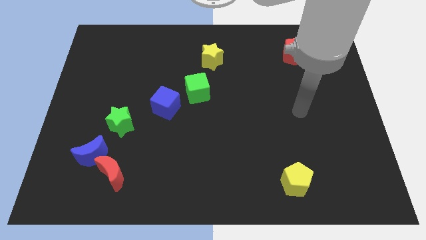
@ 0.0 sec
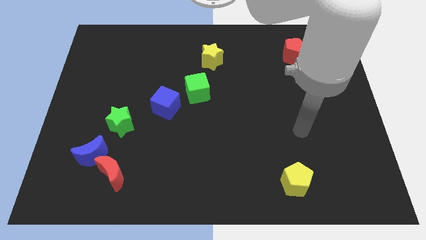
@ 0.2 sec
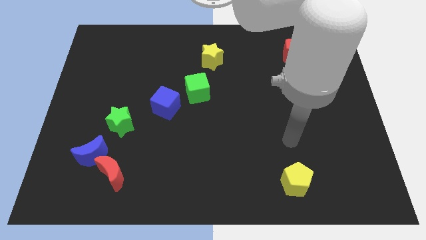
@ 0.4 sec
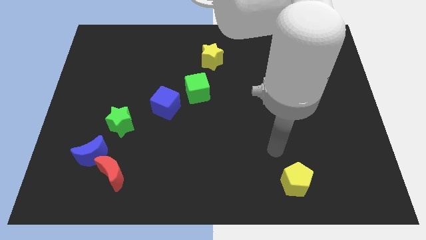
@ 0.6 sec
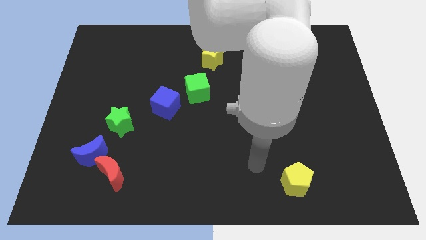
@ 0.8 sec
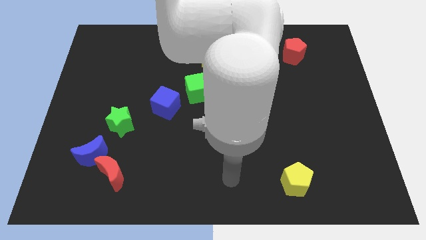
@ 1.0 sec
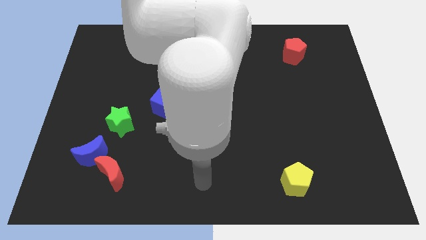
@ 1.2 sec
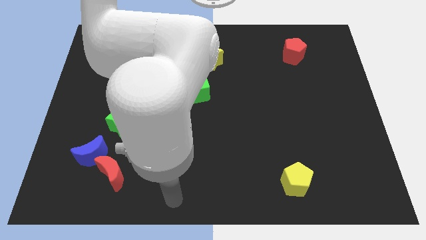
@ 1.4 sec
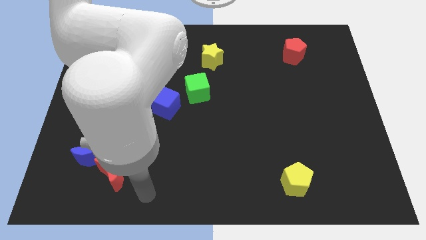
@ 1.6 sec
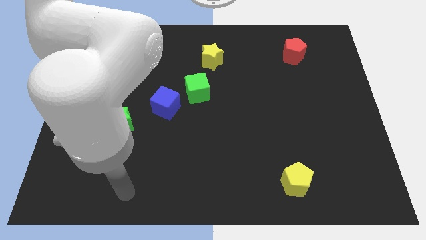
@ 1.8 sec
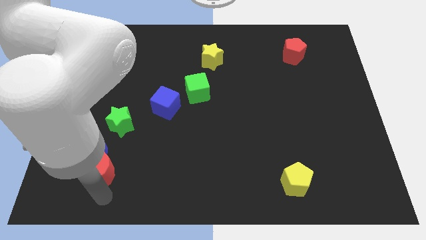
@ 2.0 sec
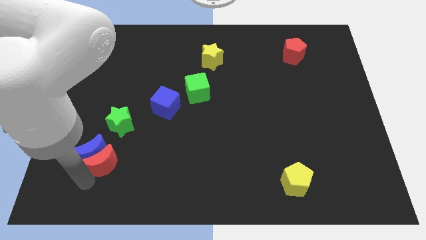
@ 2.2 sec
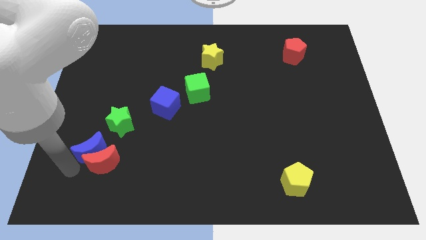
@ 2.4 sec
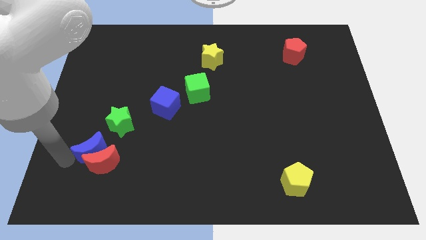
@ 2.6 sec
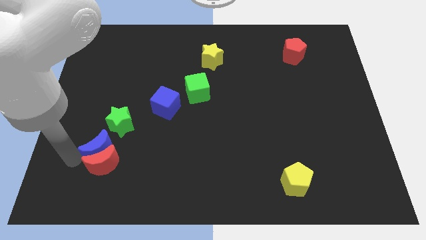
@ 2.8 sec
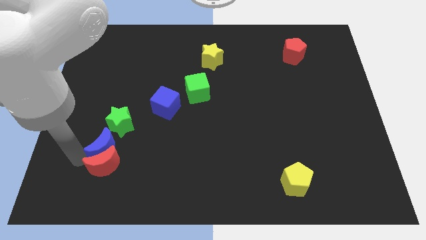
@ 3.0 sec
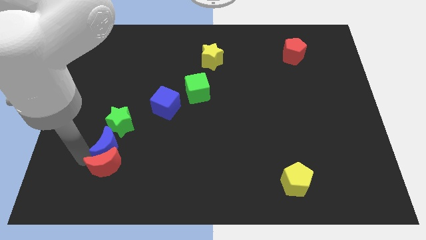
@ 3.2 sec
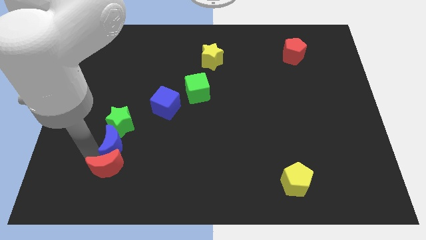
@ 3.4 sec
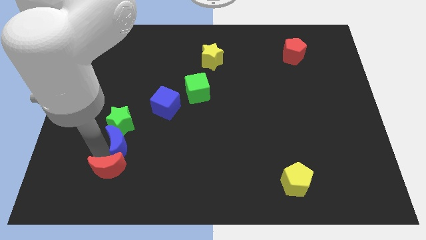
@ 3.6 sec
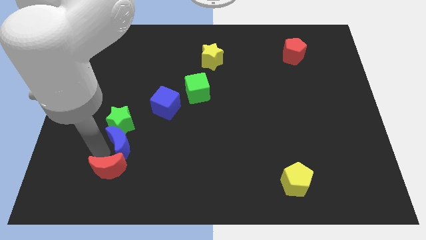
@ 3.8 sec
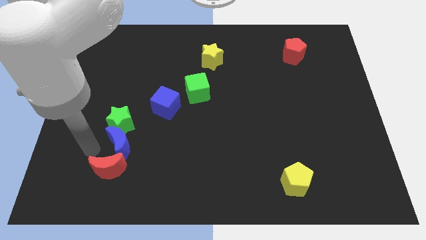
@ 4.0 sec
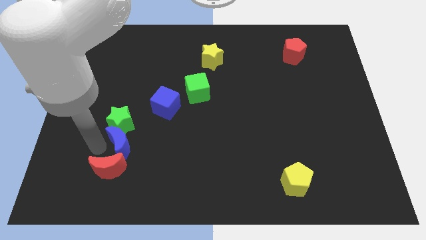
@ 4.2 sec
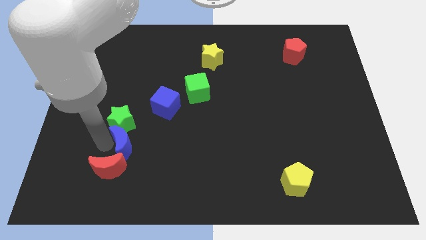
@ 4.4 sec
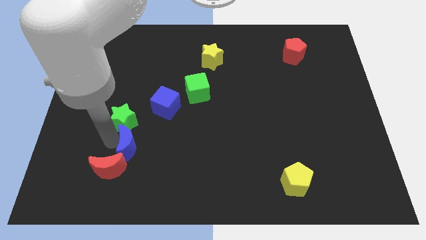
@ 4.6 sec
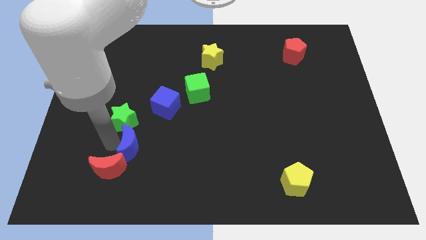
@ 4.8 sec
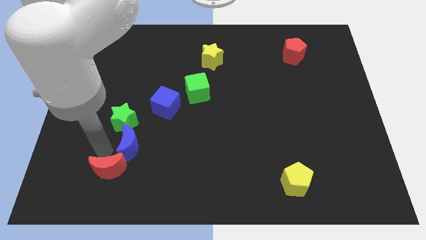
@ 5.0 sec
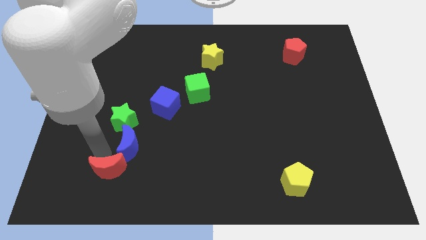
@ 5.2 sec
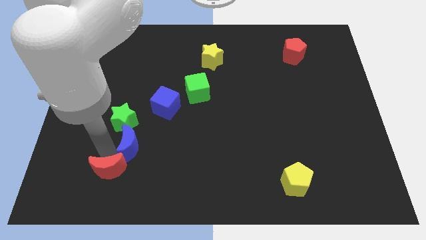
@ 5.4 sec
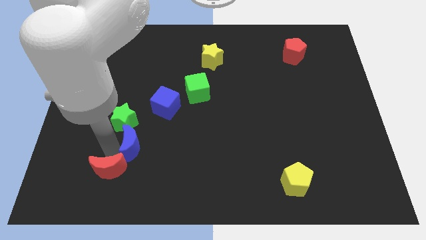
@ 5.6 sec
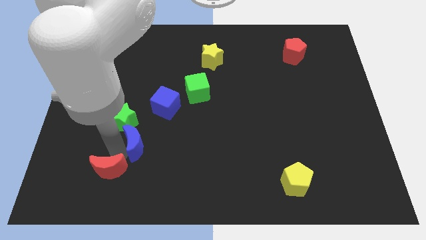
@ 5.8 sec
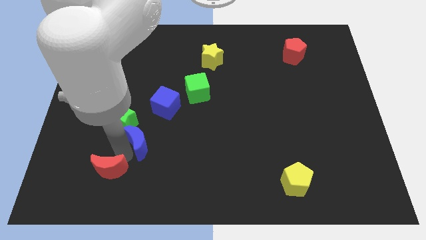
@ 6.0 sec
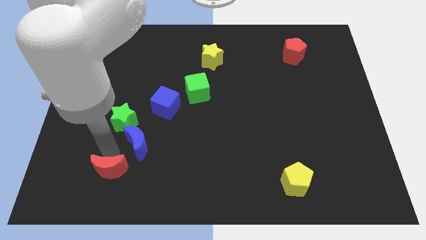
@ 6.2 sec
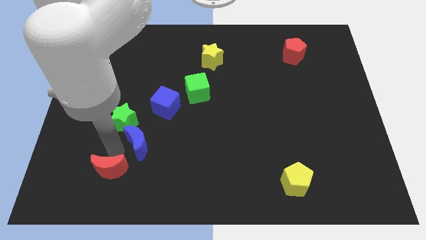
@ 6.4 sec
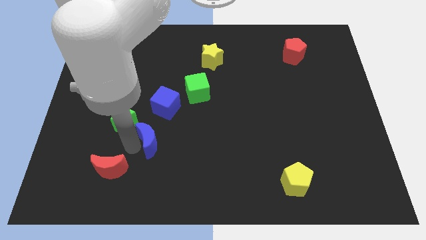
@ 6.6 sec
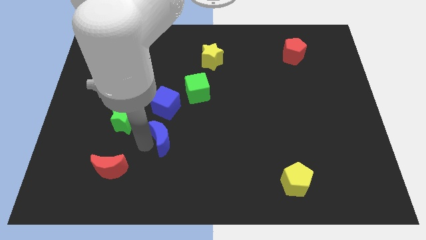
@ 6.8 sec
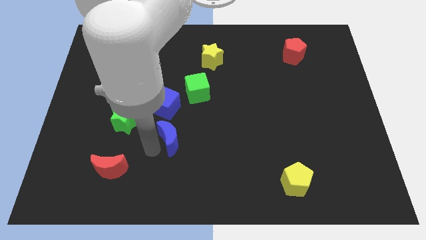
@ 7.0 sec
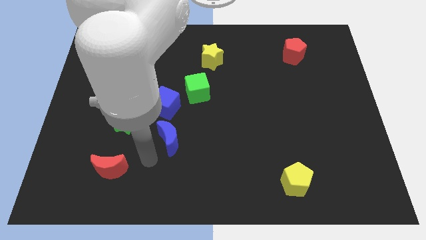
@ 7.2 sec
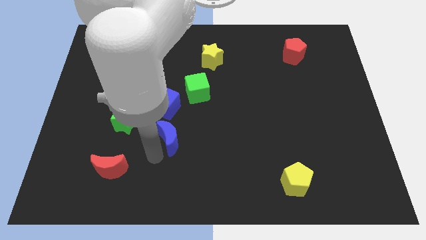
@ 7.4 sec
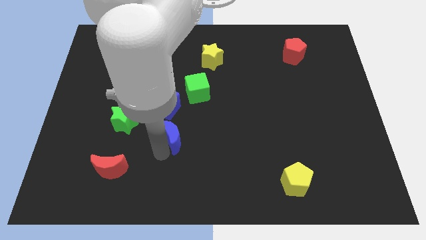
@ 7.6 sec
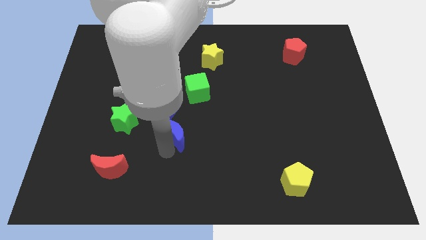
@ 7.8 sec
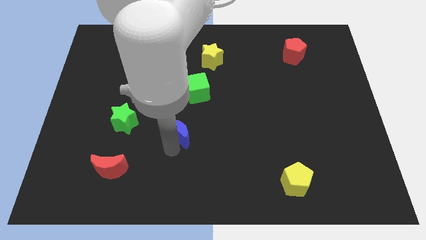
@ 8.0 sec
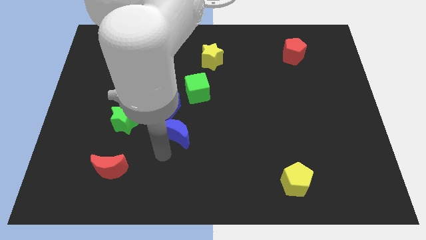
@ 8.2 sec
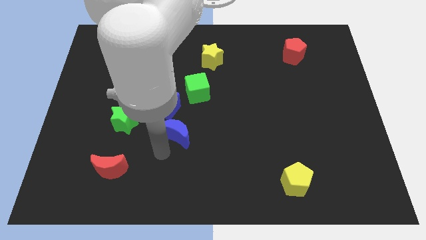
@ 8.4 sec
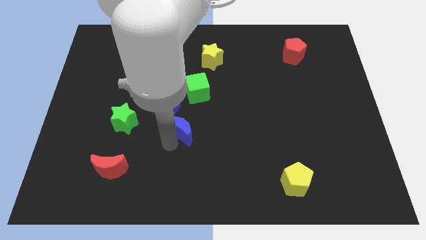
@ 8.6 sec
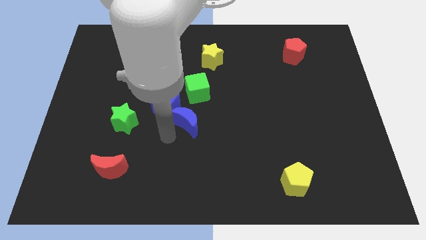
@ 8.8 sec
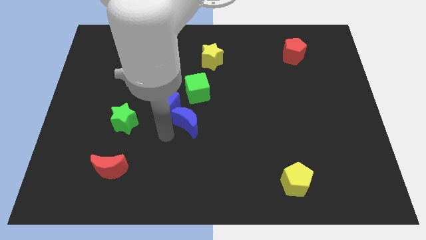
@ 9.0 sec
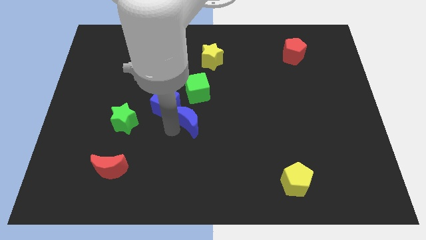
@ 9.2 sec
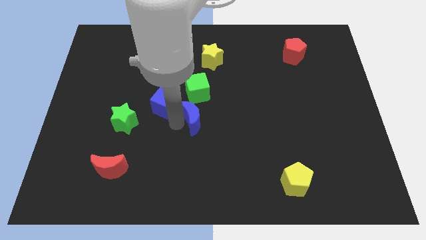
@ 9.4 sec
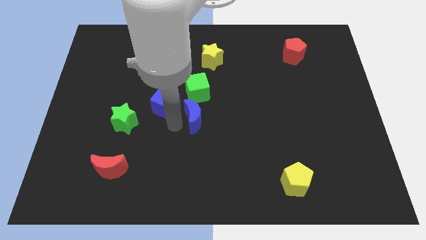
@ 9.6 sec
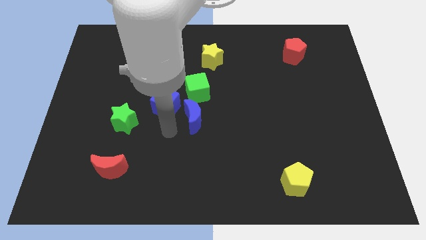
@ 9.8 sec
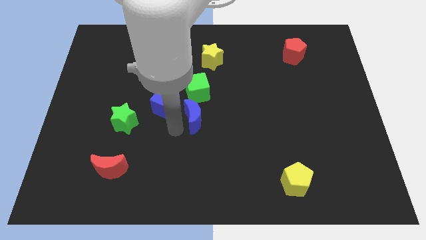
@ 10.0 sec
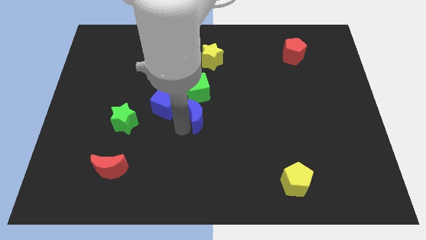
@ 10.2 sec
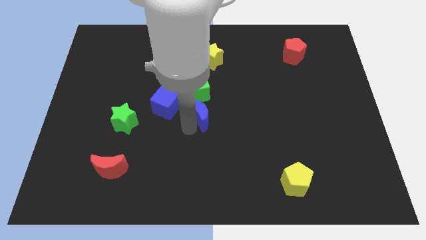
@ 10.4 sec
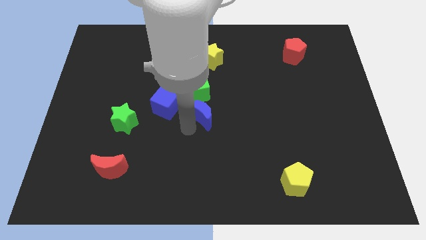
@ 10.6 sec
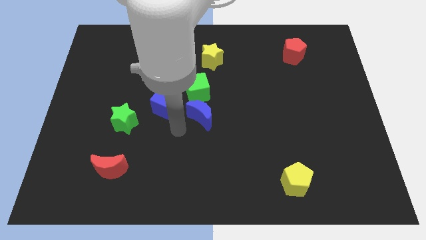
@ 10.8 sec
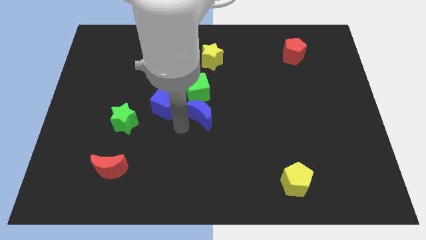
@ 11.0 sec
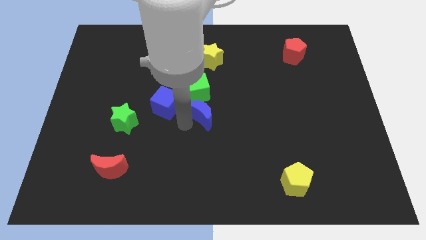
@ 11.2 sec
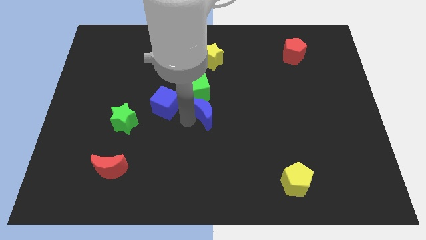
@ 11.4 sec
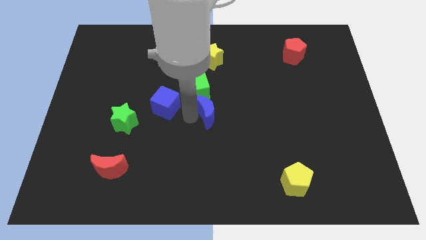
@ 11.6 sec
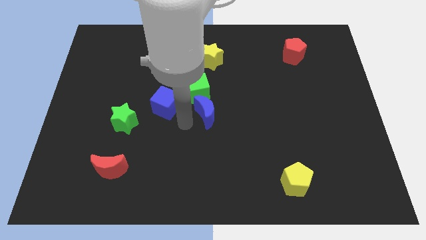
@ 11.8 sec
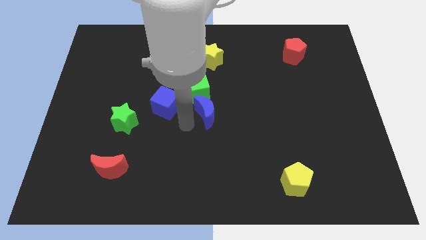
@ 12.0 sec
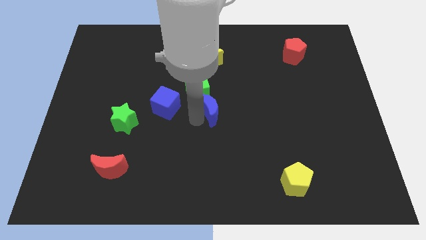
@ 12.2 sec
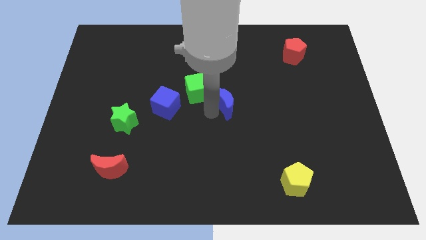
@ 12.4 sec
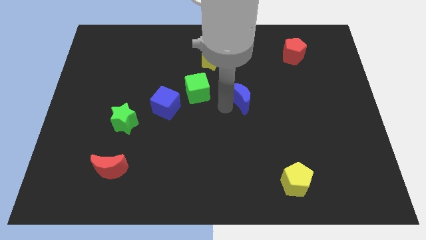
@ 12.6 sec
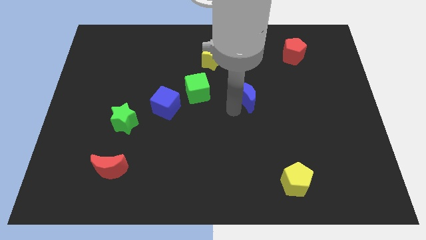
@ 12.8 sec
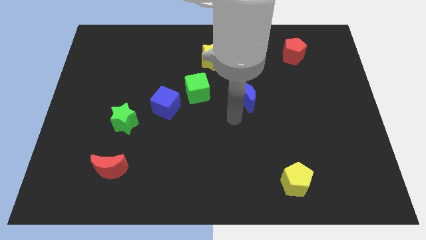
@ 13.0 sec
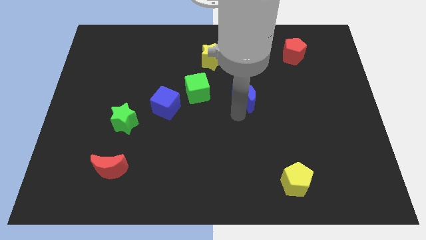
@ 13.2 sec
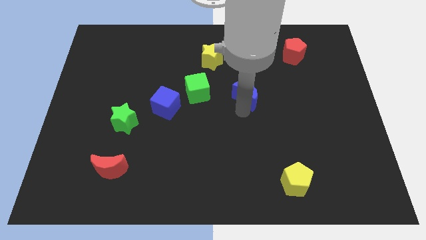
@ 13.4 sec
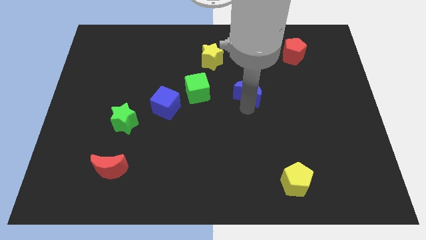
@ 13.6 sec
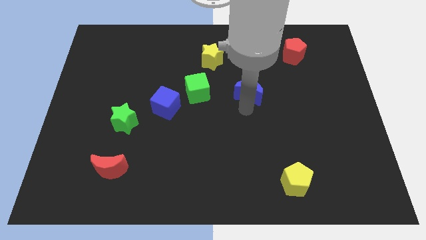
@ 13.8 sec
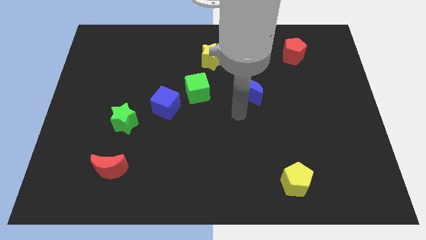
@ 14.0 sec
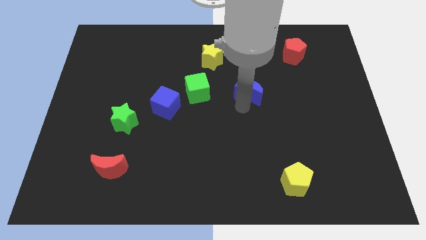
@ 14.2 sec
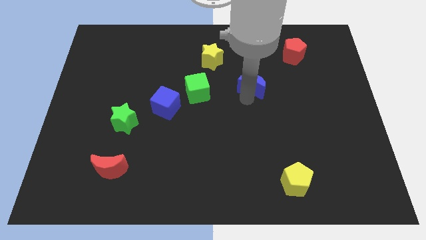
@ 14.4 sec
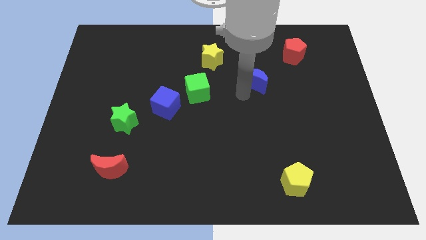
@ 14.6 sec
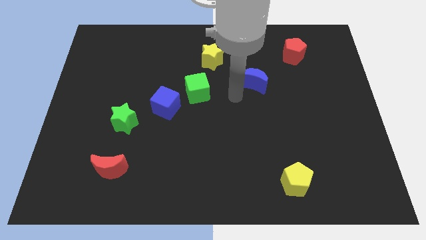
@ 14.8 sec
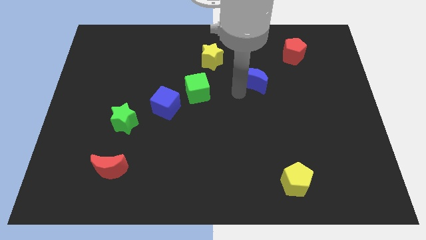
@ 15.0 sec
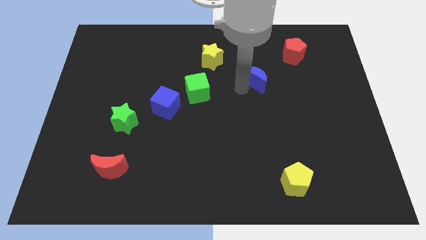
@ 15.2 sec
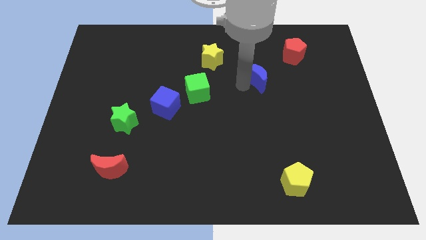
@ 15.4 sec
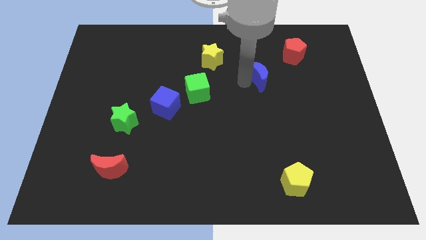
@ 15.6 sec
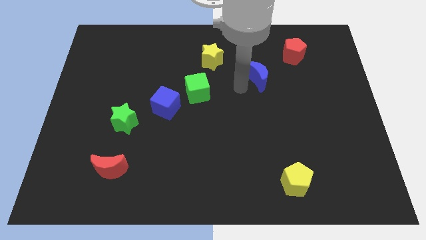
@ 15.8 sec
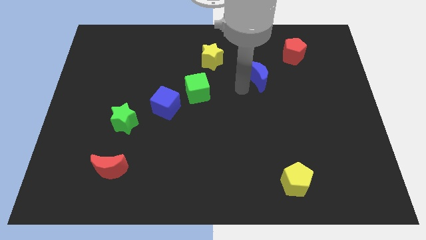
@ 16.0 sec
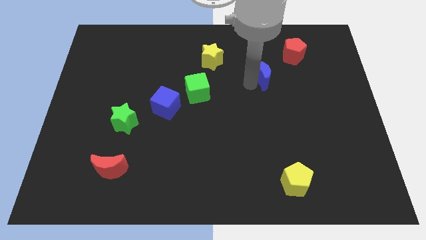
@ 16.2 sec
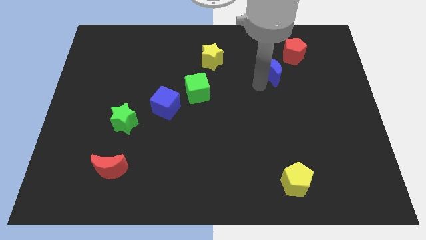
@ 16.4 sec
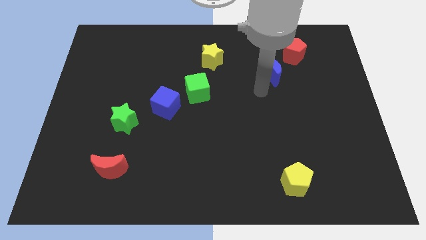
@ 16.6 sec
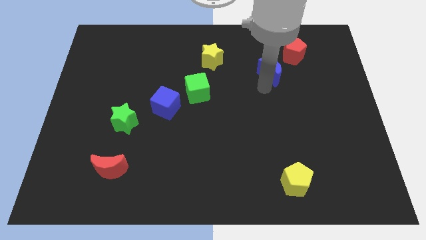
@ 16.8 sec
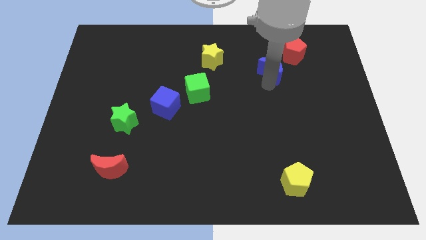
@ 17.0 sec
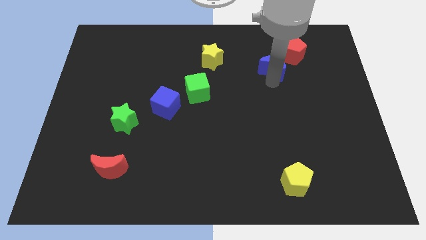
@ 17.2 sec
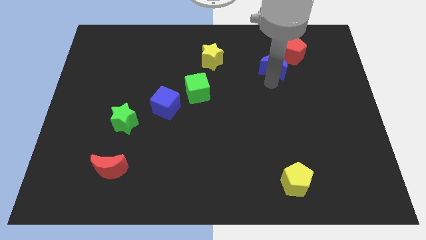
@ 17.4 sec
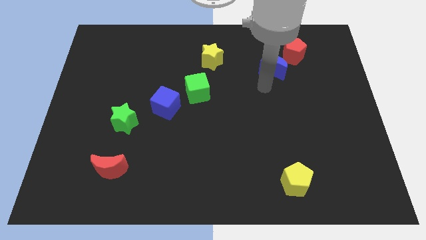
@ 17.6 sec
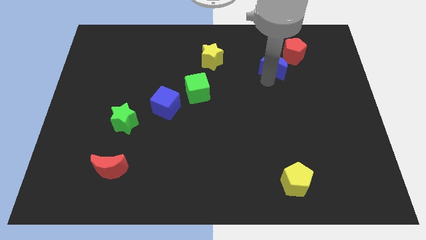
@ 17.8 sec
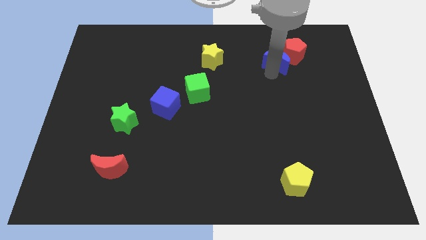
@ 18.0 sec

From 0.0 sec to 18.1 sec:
move the blue moon next to the red pentagon
